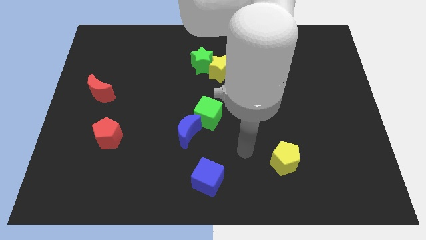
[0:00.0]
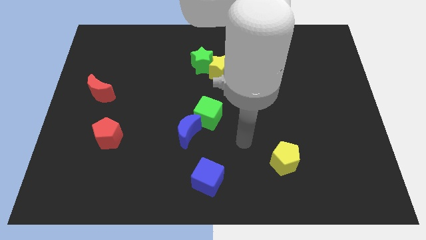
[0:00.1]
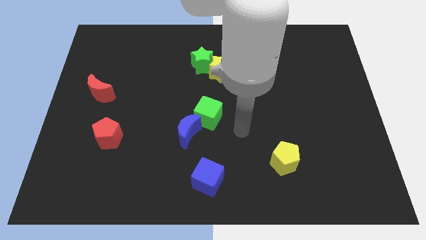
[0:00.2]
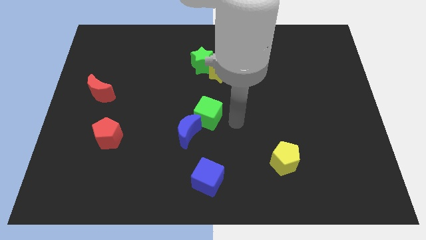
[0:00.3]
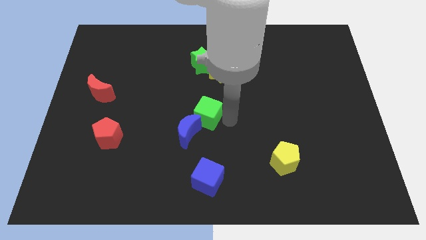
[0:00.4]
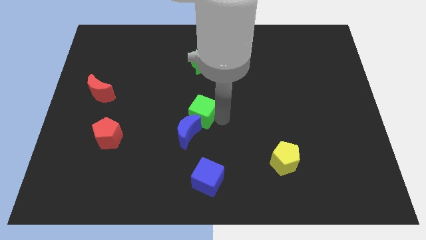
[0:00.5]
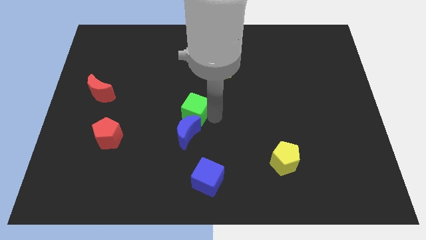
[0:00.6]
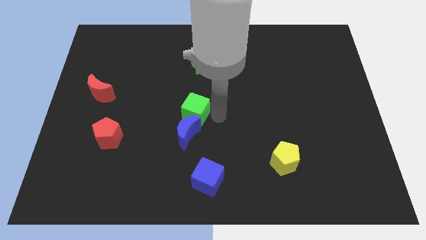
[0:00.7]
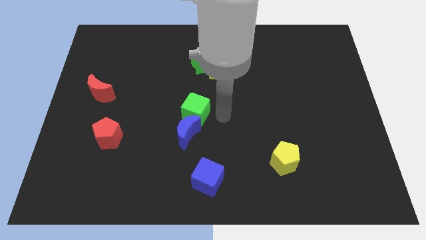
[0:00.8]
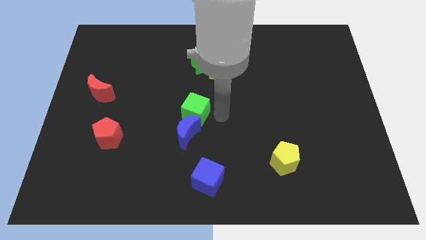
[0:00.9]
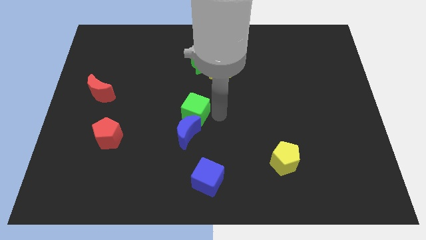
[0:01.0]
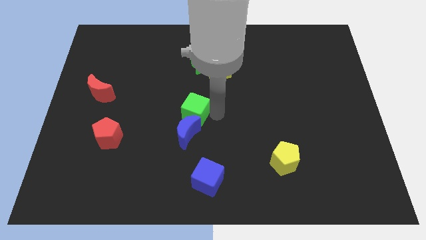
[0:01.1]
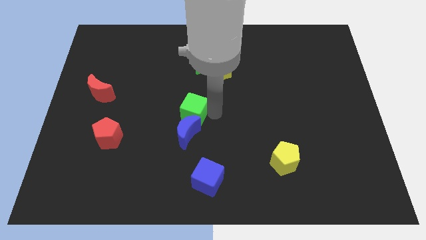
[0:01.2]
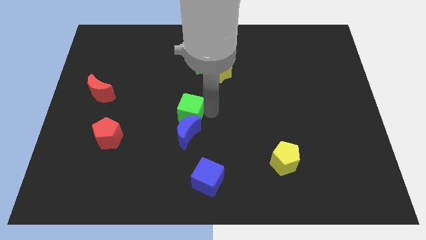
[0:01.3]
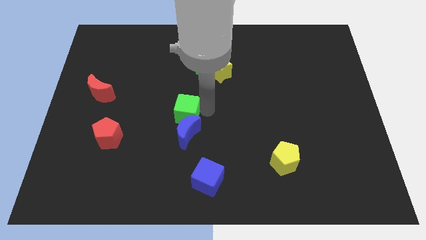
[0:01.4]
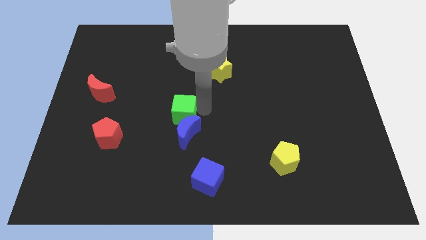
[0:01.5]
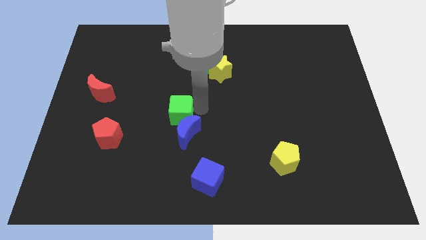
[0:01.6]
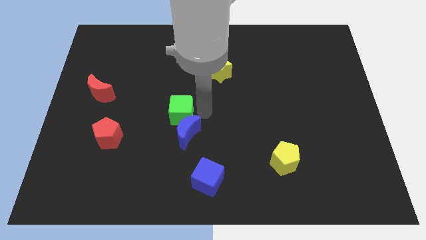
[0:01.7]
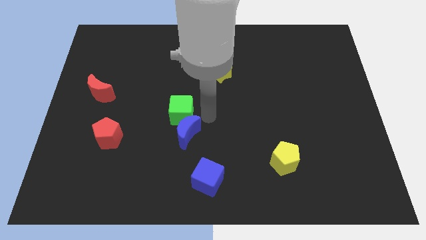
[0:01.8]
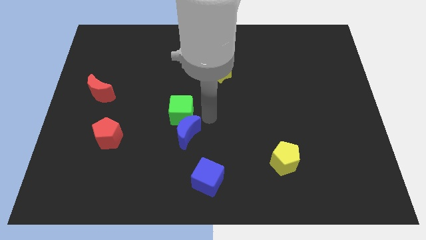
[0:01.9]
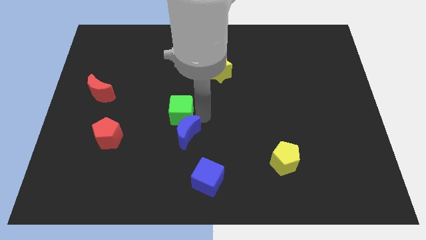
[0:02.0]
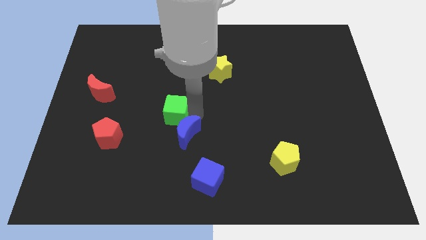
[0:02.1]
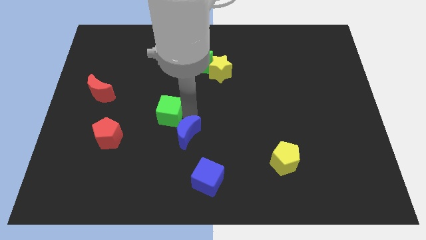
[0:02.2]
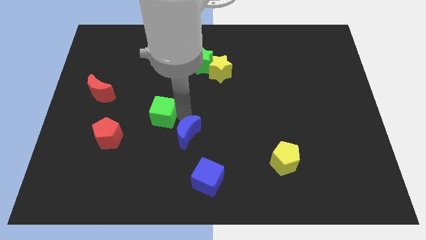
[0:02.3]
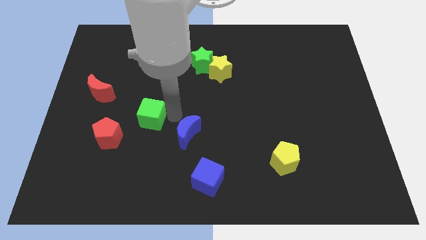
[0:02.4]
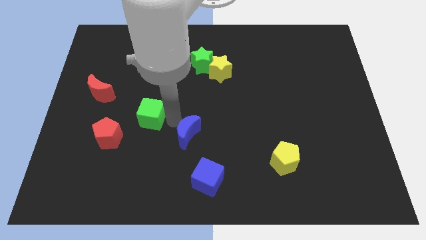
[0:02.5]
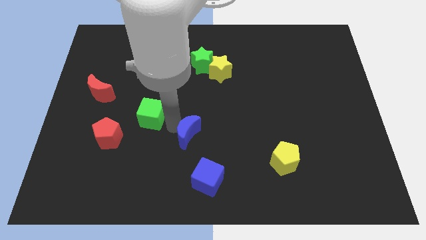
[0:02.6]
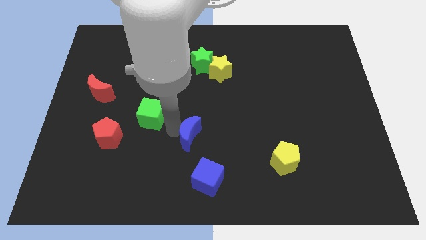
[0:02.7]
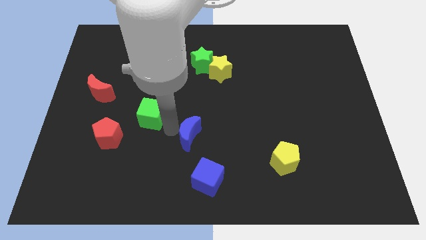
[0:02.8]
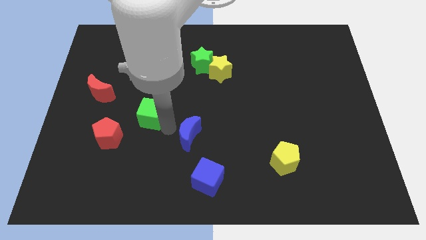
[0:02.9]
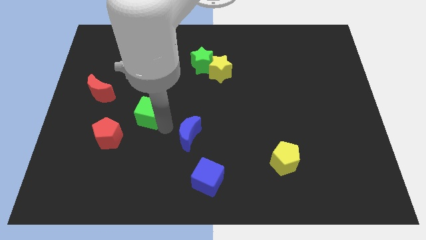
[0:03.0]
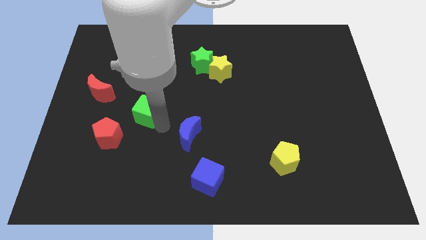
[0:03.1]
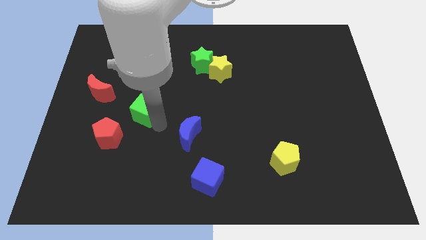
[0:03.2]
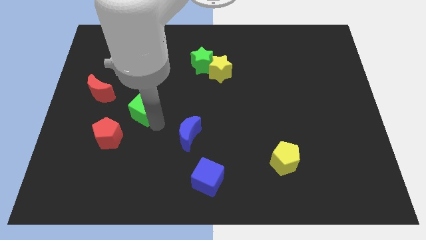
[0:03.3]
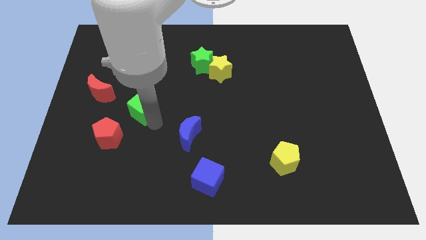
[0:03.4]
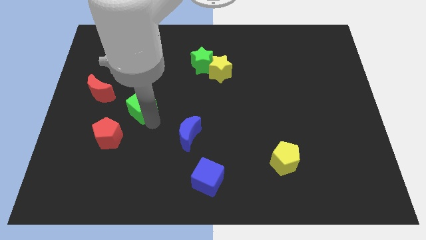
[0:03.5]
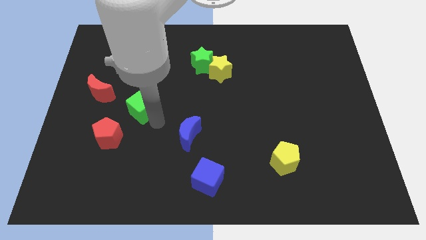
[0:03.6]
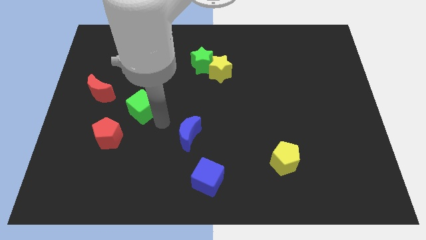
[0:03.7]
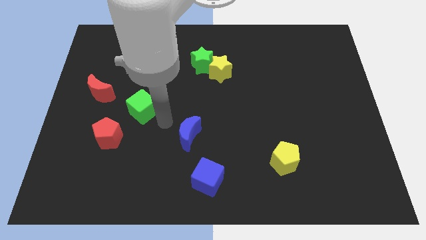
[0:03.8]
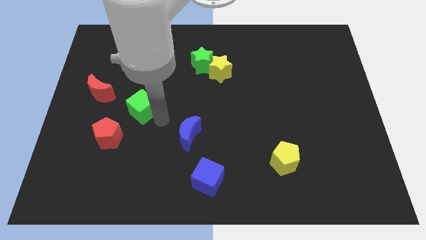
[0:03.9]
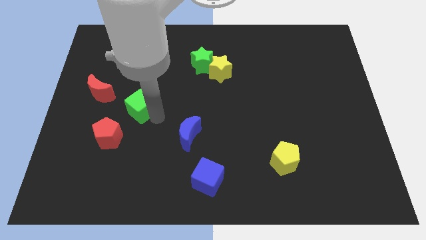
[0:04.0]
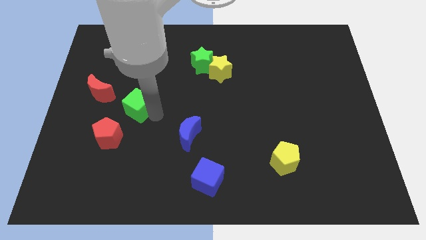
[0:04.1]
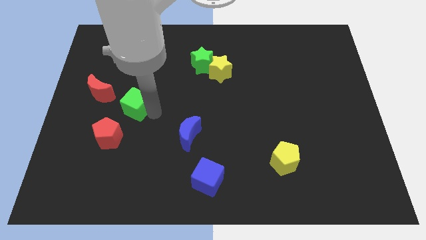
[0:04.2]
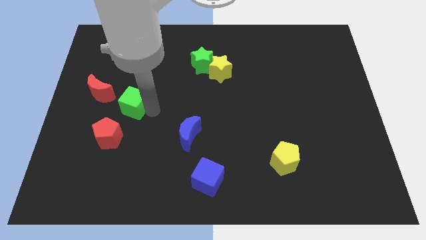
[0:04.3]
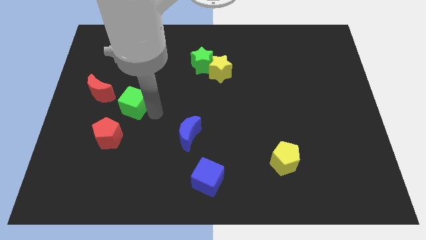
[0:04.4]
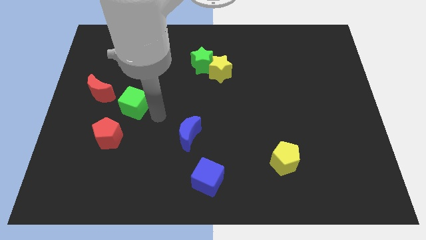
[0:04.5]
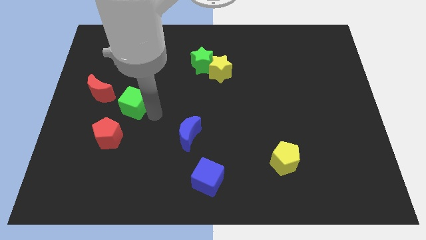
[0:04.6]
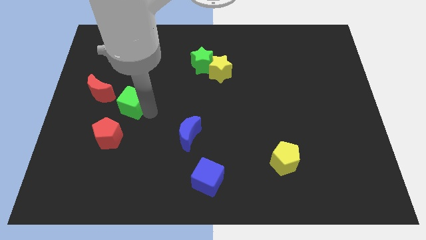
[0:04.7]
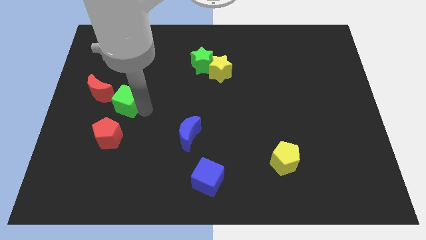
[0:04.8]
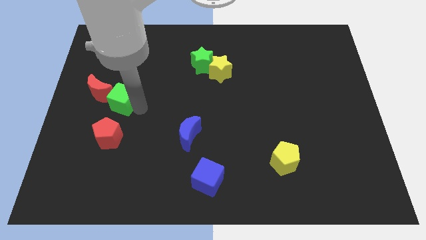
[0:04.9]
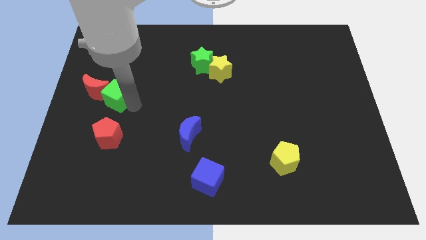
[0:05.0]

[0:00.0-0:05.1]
put the green cube to the red moon

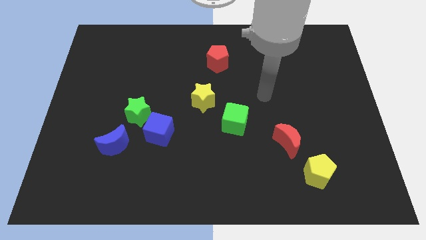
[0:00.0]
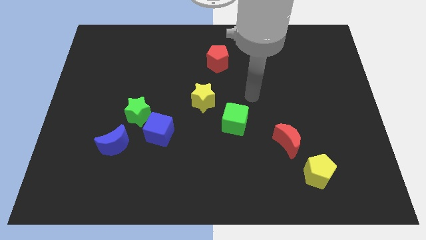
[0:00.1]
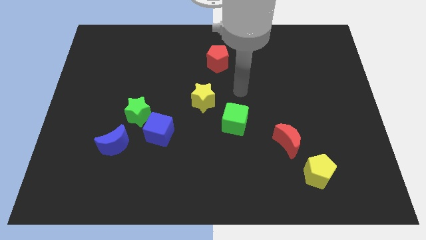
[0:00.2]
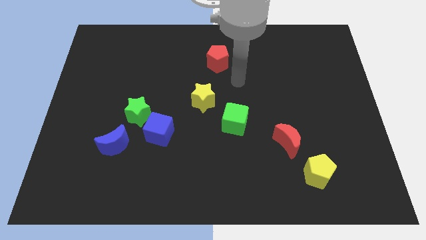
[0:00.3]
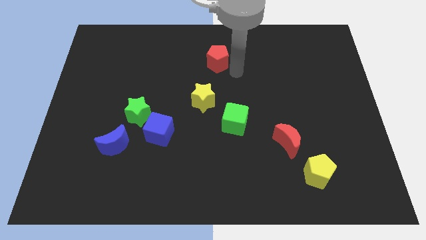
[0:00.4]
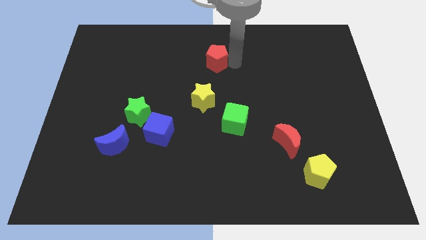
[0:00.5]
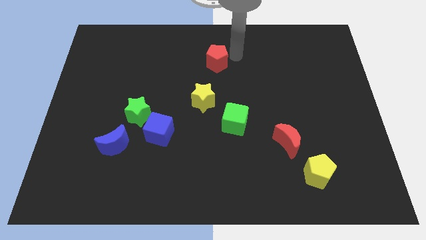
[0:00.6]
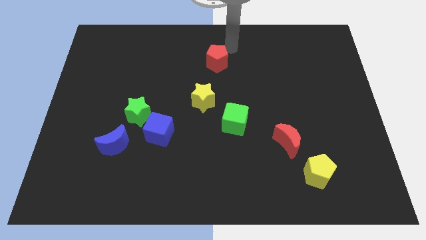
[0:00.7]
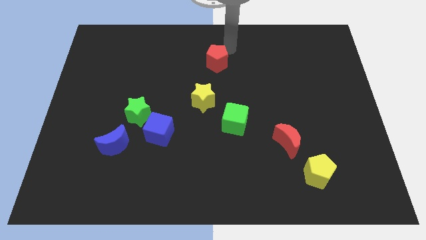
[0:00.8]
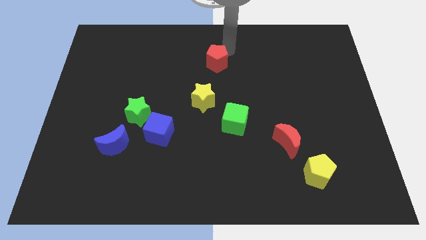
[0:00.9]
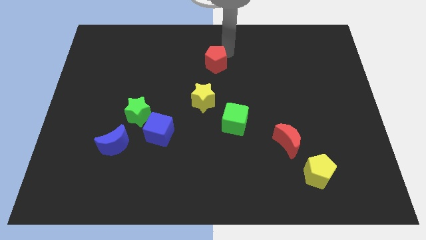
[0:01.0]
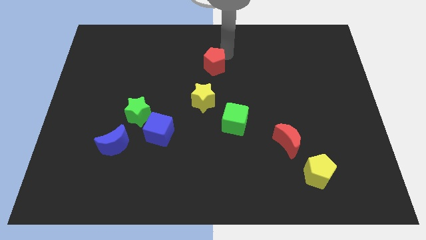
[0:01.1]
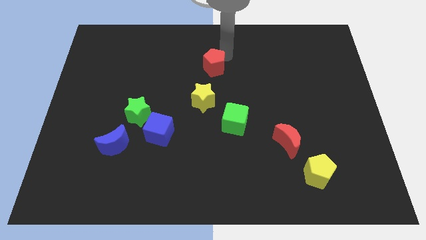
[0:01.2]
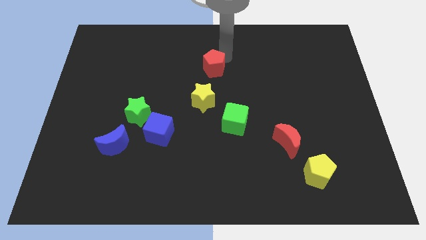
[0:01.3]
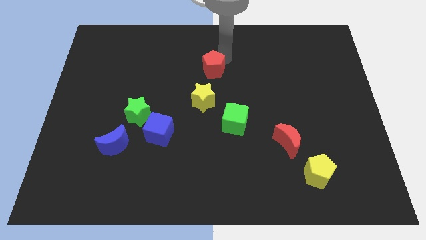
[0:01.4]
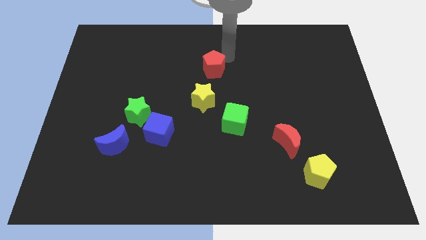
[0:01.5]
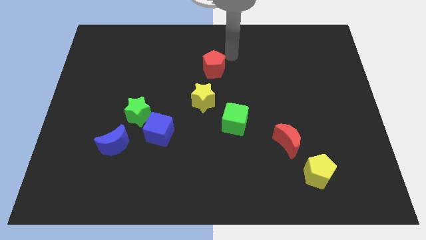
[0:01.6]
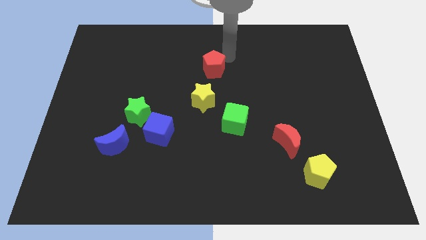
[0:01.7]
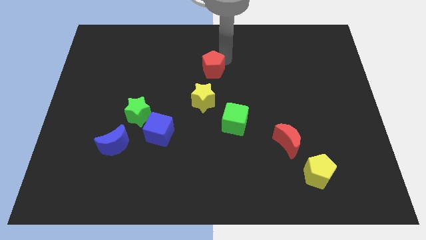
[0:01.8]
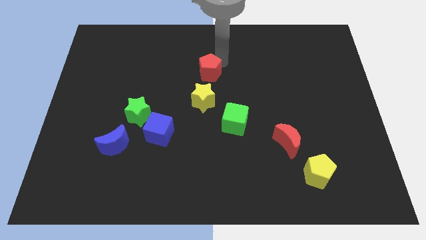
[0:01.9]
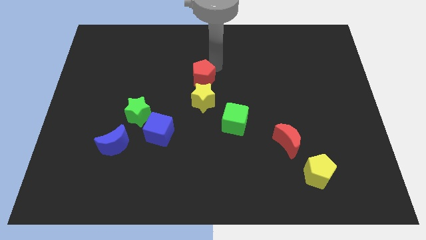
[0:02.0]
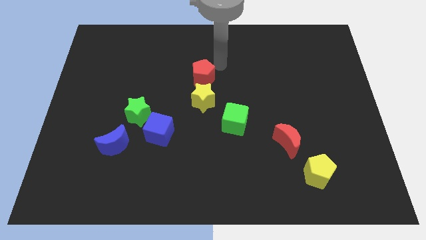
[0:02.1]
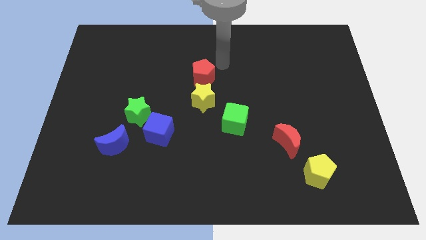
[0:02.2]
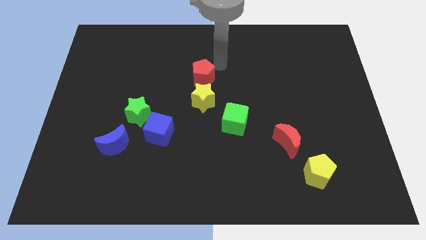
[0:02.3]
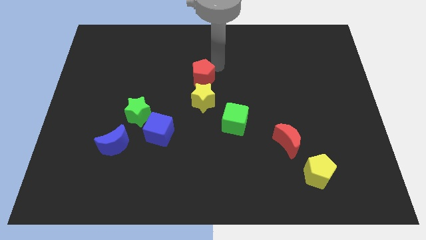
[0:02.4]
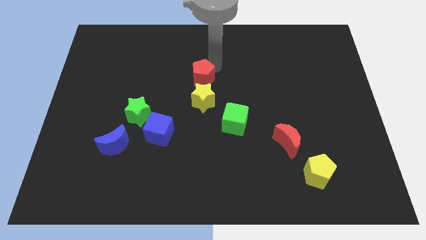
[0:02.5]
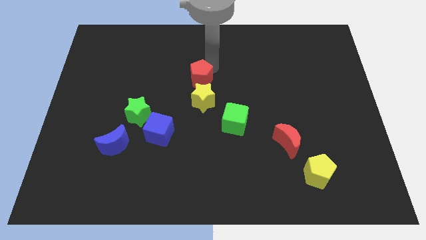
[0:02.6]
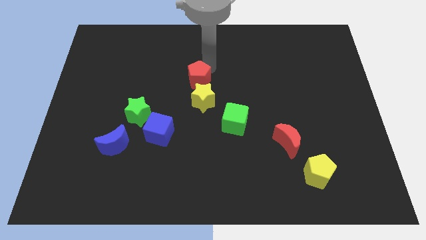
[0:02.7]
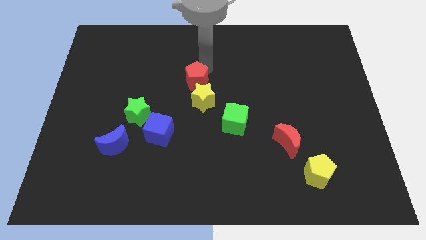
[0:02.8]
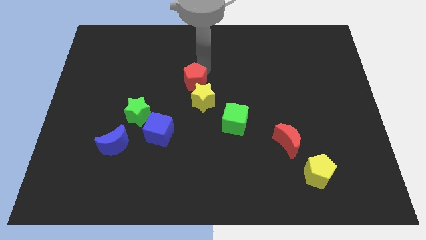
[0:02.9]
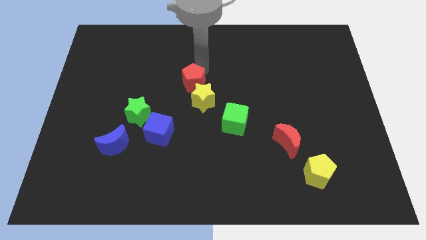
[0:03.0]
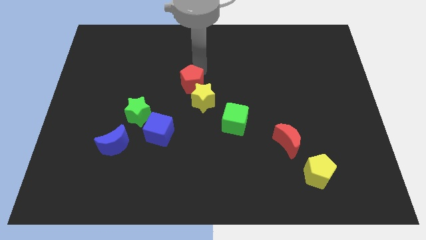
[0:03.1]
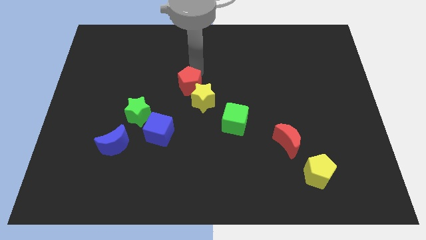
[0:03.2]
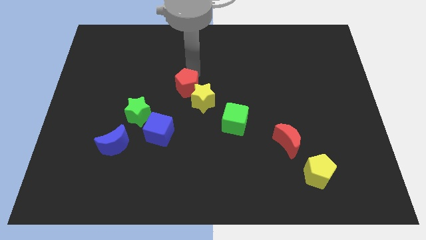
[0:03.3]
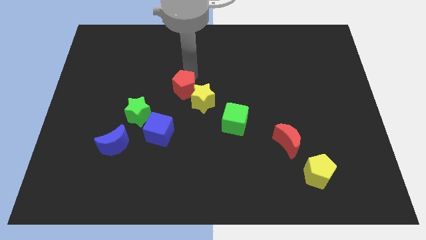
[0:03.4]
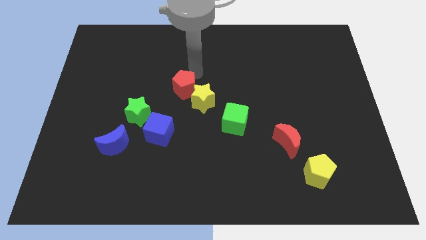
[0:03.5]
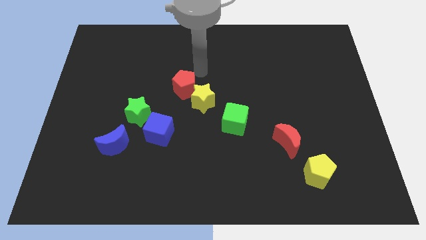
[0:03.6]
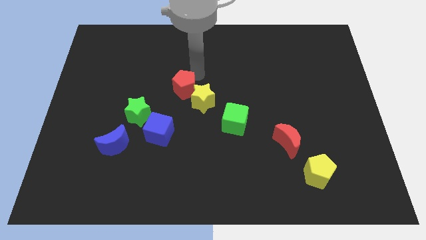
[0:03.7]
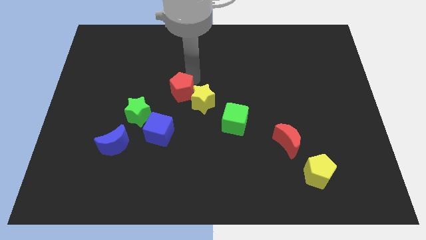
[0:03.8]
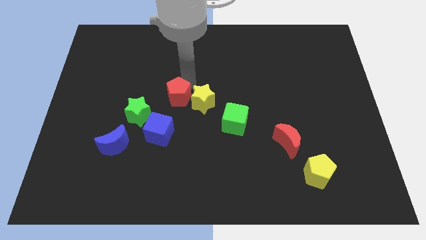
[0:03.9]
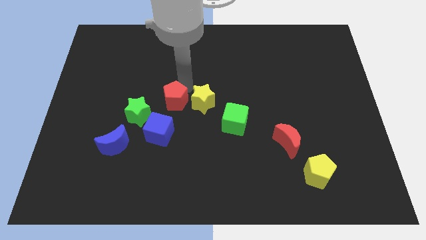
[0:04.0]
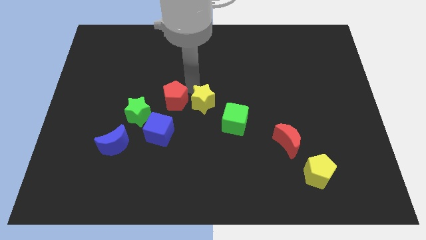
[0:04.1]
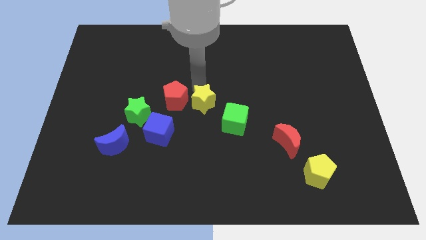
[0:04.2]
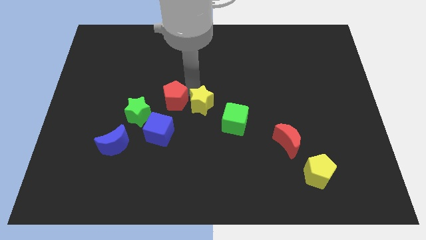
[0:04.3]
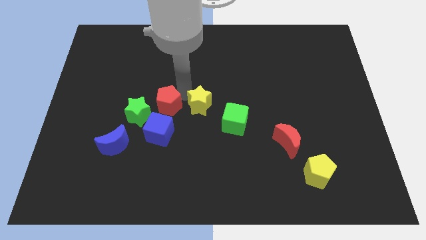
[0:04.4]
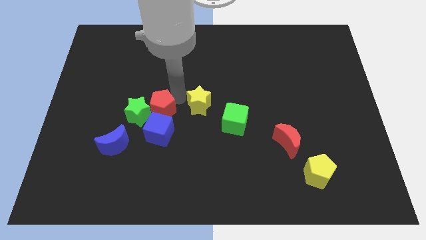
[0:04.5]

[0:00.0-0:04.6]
move the red pentagon to the green star
